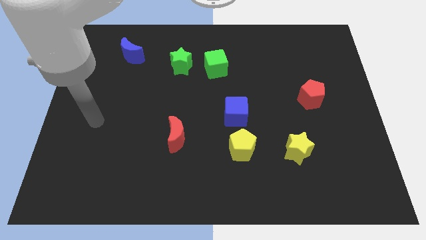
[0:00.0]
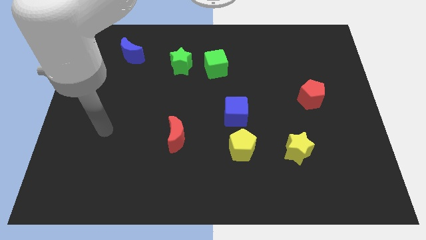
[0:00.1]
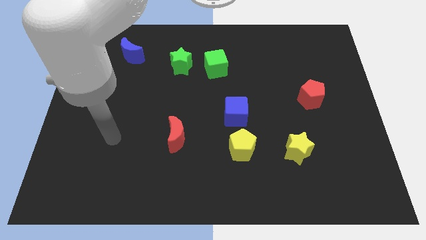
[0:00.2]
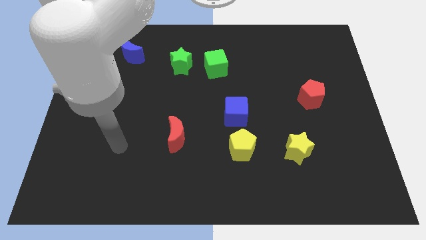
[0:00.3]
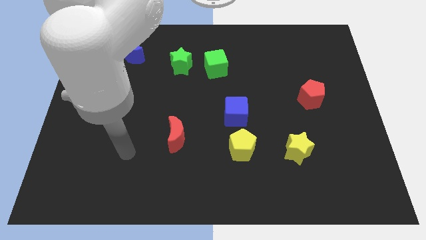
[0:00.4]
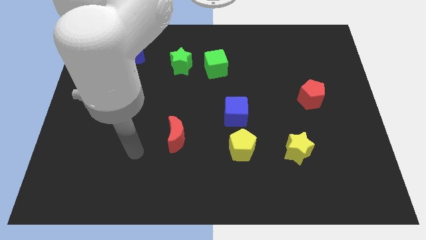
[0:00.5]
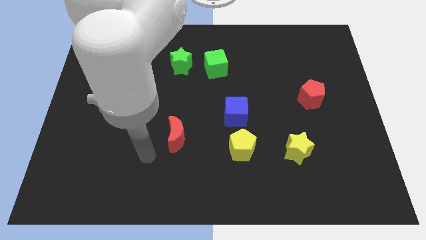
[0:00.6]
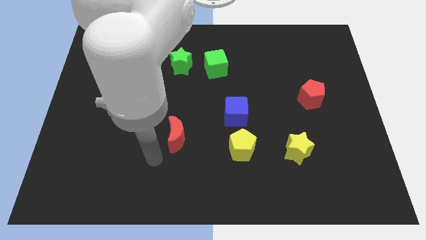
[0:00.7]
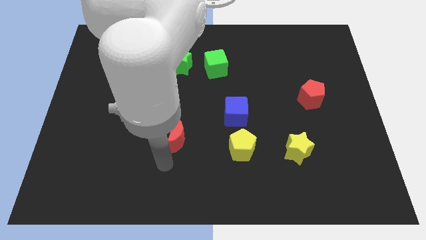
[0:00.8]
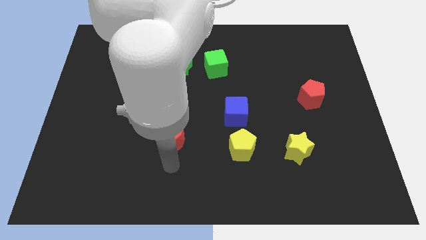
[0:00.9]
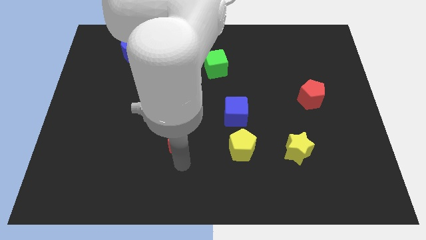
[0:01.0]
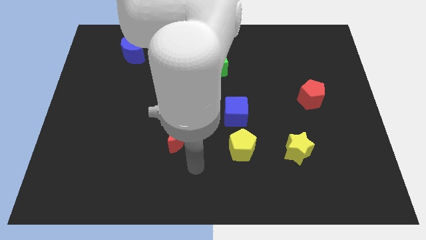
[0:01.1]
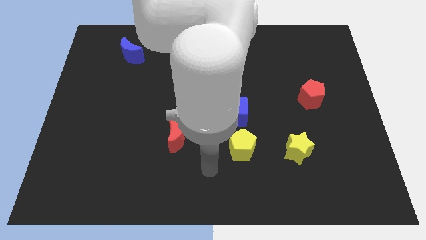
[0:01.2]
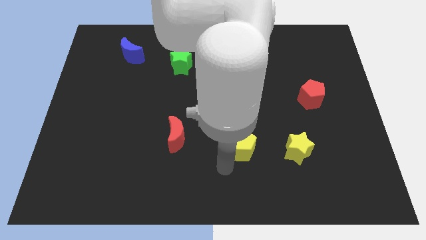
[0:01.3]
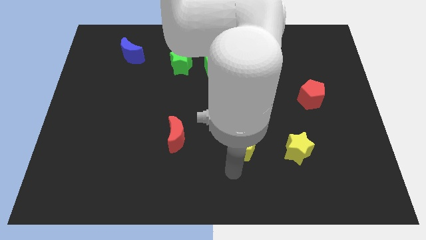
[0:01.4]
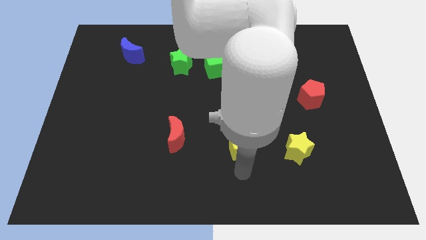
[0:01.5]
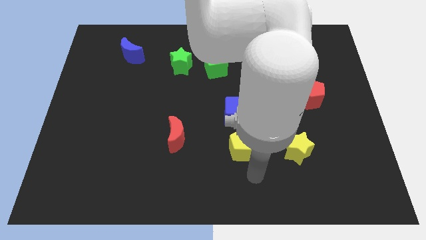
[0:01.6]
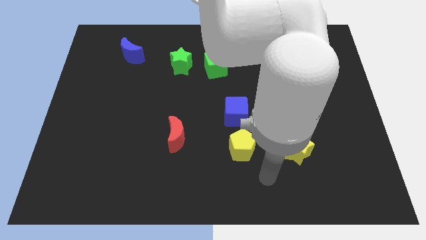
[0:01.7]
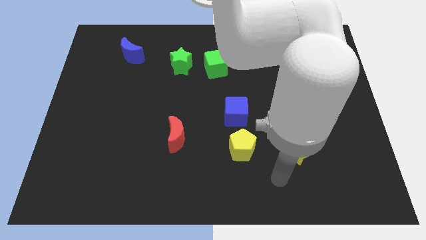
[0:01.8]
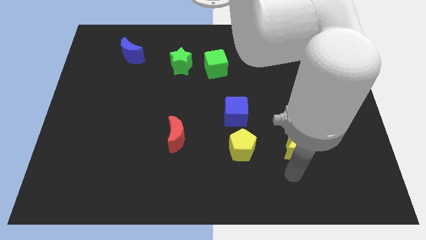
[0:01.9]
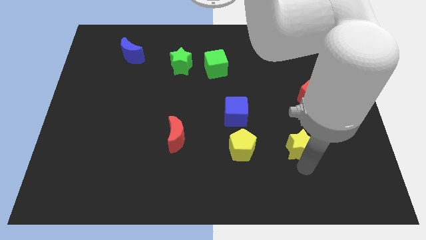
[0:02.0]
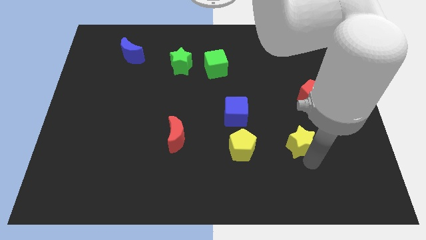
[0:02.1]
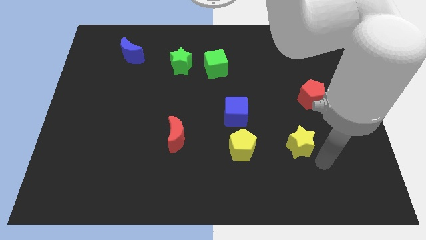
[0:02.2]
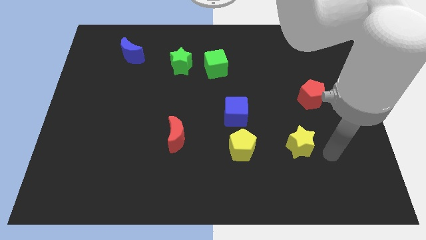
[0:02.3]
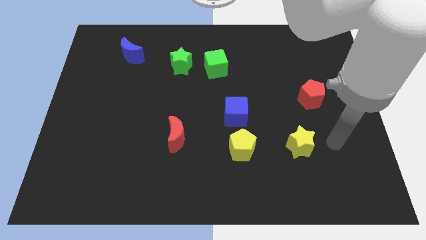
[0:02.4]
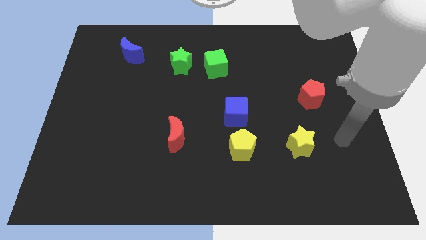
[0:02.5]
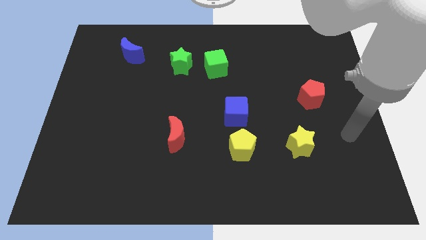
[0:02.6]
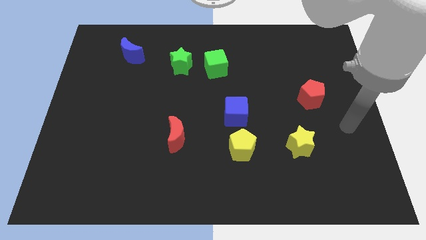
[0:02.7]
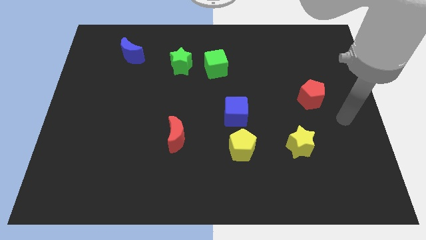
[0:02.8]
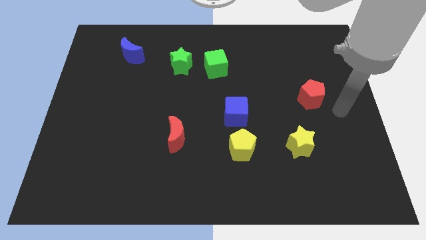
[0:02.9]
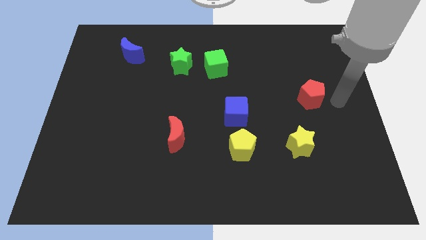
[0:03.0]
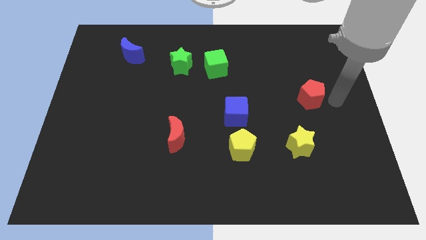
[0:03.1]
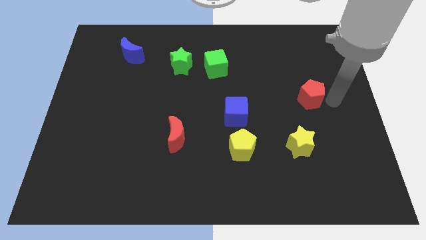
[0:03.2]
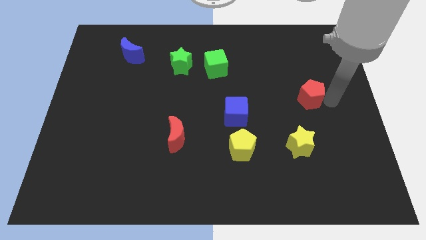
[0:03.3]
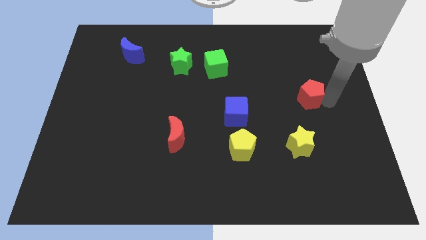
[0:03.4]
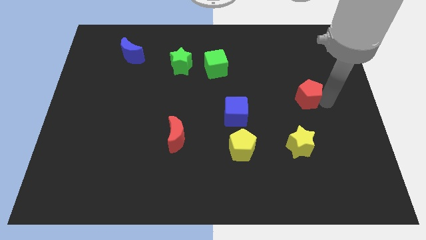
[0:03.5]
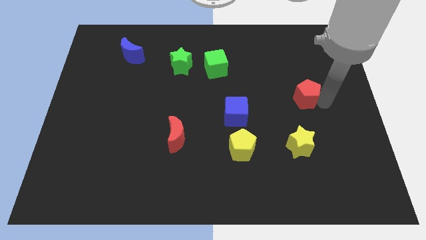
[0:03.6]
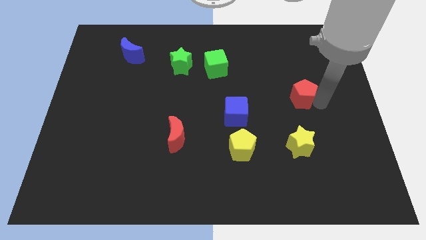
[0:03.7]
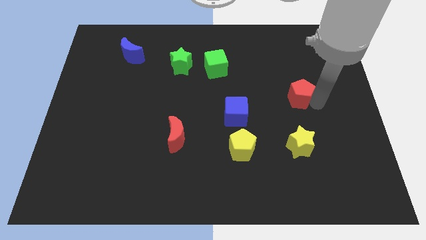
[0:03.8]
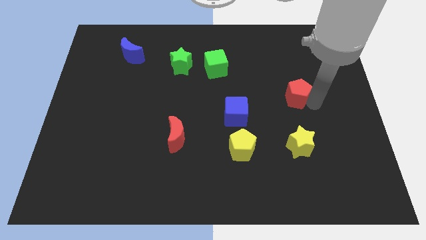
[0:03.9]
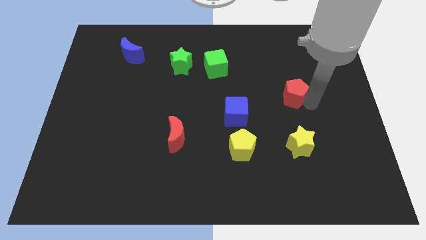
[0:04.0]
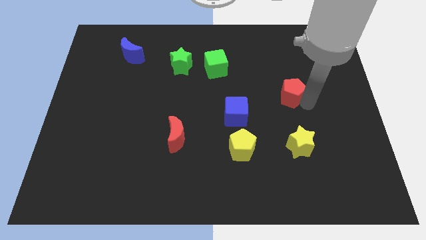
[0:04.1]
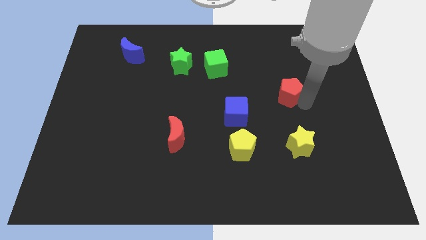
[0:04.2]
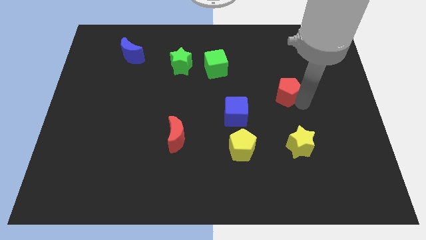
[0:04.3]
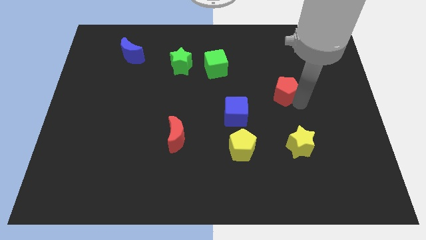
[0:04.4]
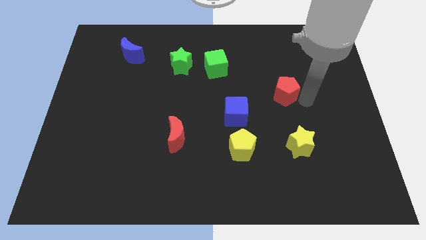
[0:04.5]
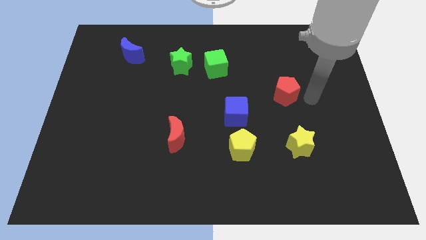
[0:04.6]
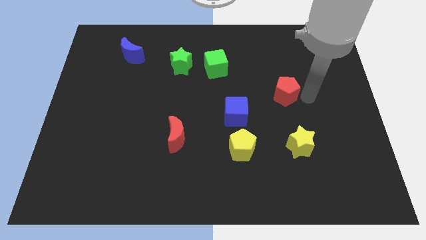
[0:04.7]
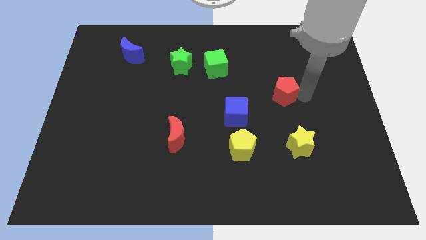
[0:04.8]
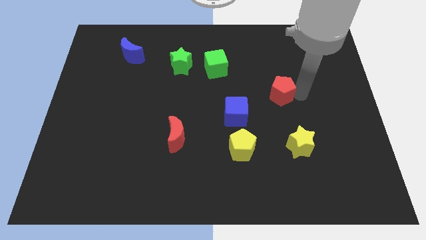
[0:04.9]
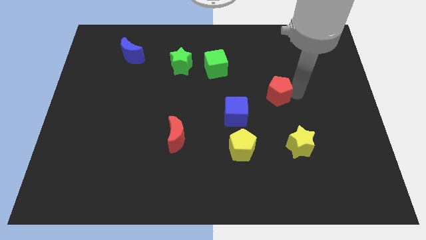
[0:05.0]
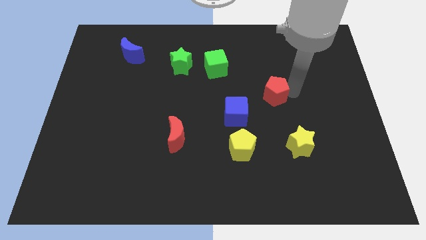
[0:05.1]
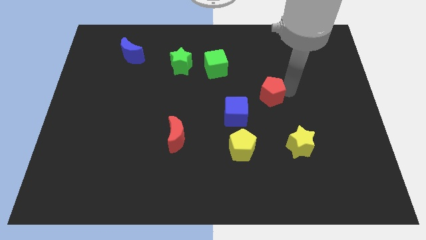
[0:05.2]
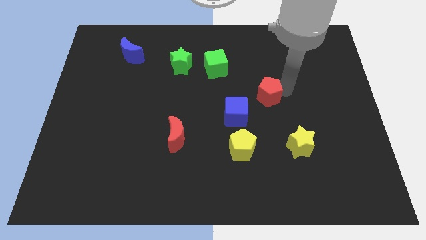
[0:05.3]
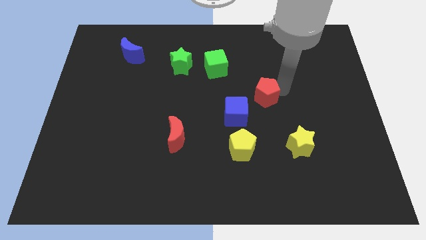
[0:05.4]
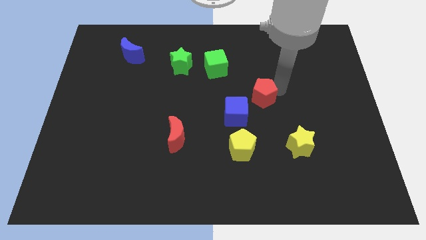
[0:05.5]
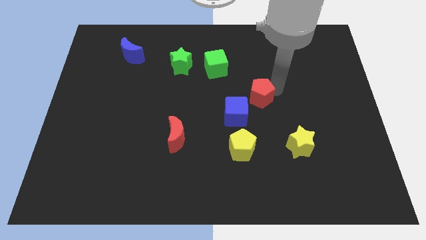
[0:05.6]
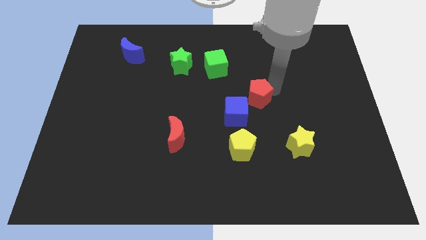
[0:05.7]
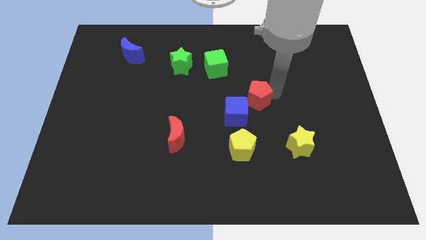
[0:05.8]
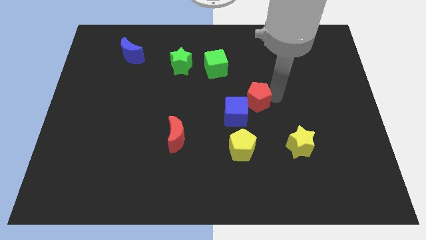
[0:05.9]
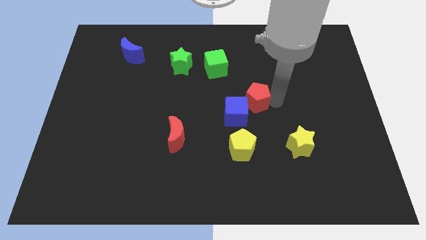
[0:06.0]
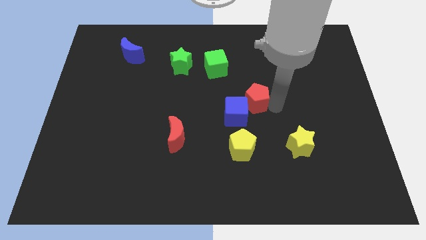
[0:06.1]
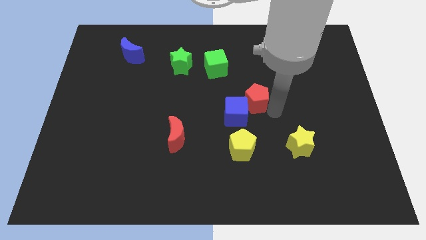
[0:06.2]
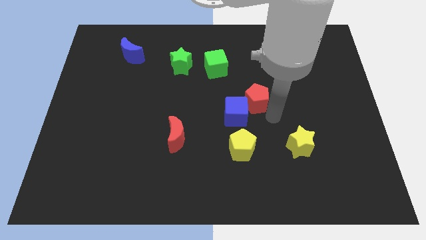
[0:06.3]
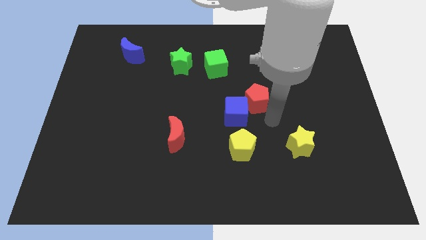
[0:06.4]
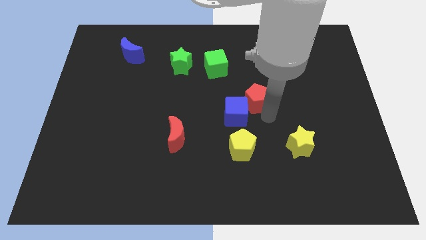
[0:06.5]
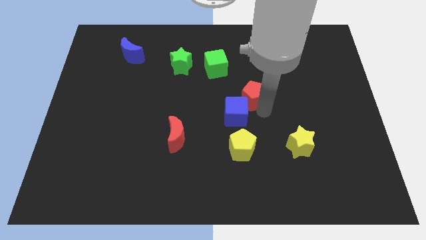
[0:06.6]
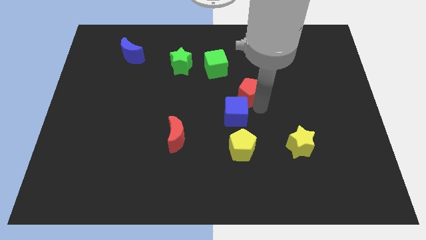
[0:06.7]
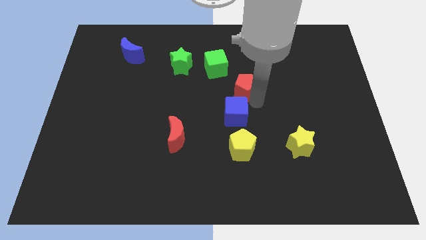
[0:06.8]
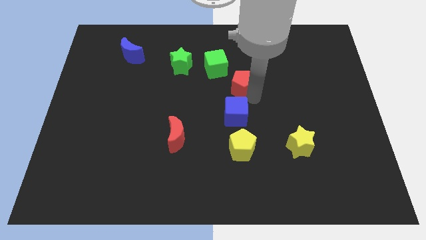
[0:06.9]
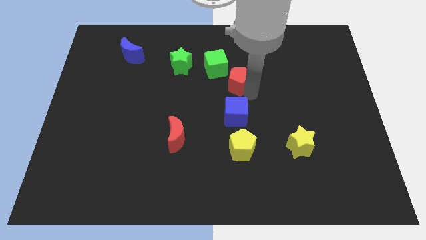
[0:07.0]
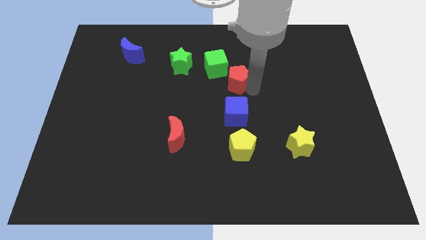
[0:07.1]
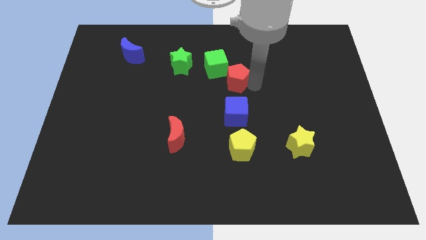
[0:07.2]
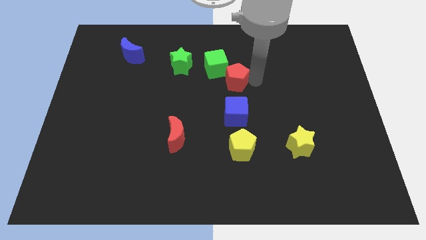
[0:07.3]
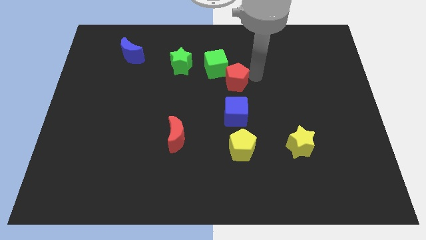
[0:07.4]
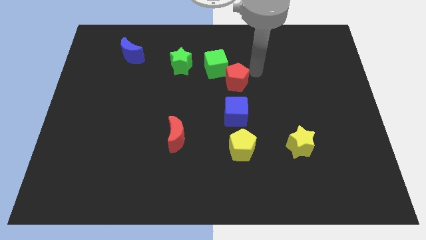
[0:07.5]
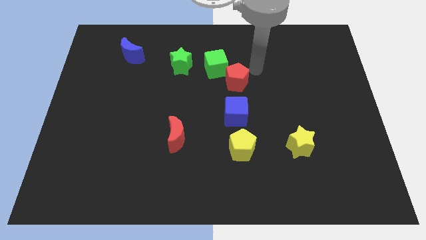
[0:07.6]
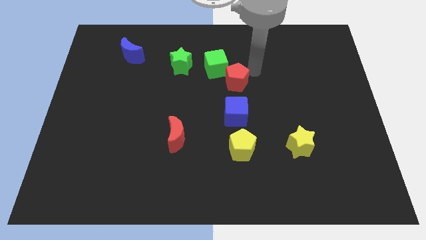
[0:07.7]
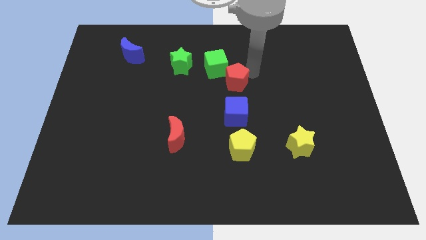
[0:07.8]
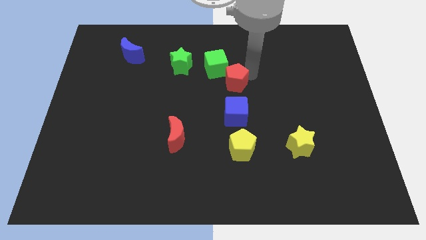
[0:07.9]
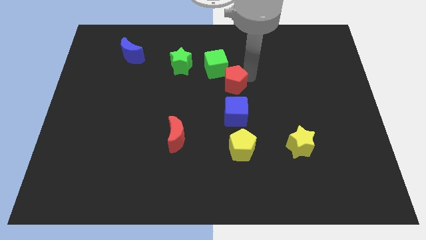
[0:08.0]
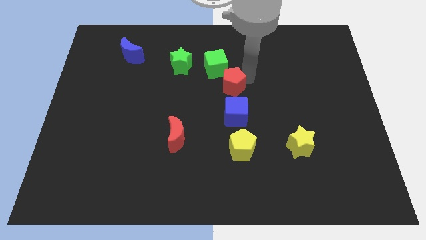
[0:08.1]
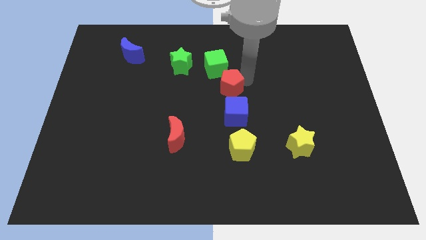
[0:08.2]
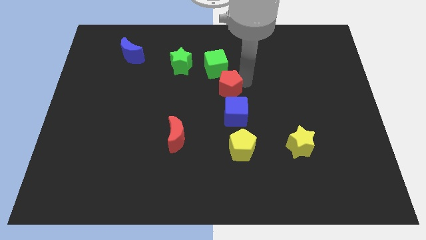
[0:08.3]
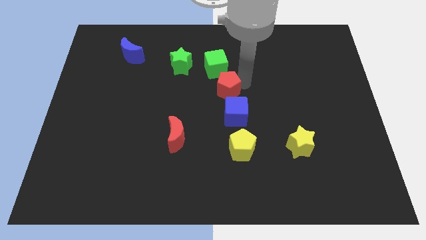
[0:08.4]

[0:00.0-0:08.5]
push the red pentagon to the left
